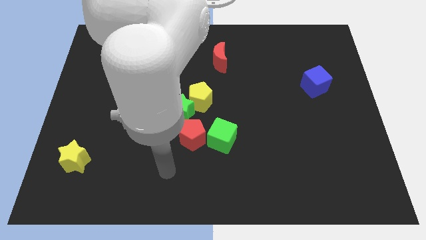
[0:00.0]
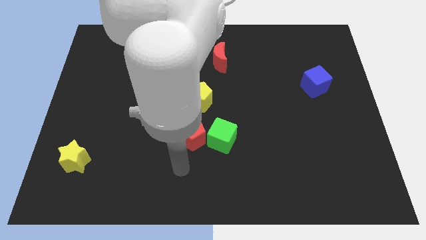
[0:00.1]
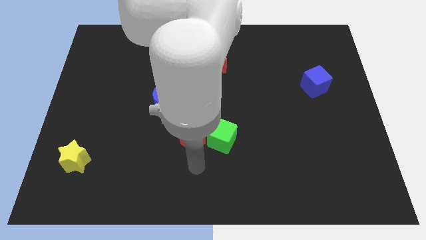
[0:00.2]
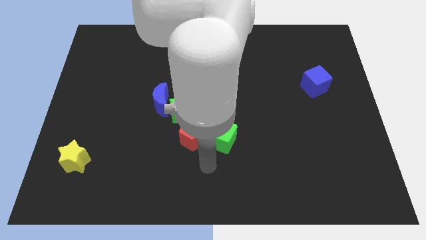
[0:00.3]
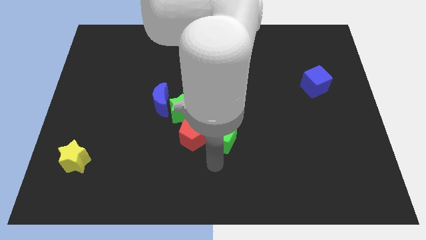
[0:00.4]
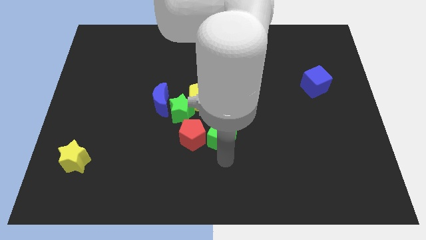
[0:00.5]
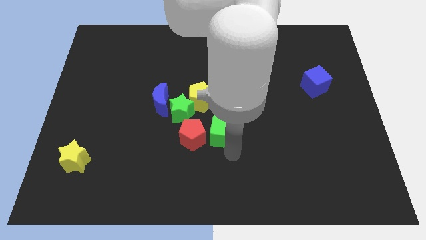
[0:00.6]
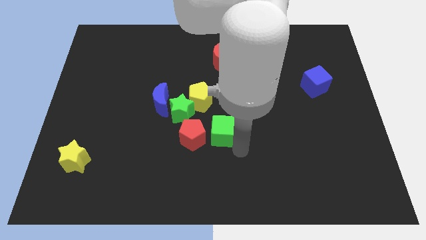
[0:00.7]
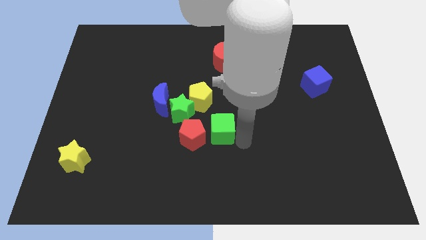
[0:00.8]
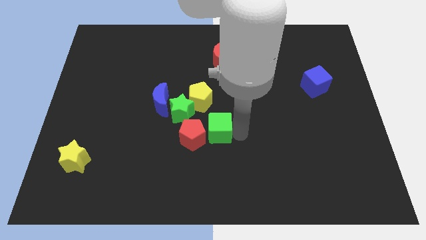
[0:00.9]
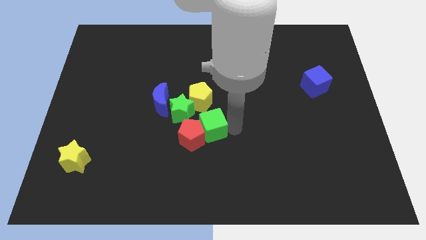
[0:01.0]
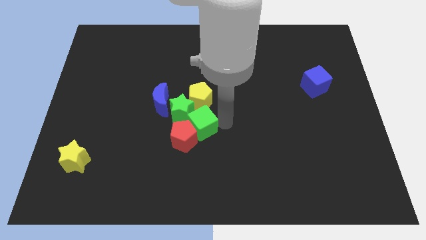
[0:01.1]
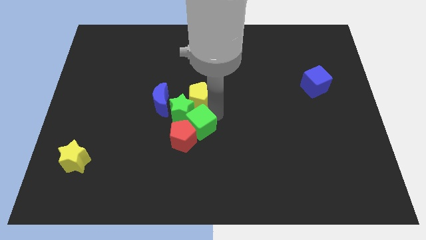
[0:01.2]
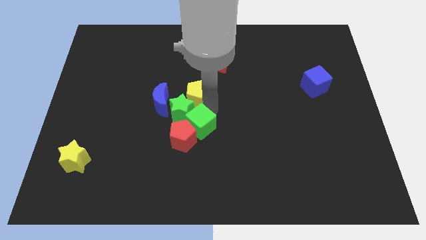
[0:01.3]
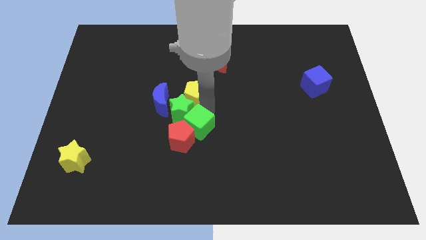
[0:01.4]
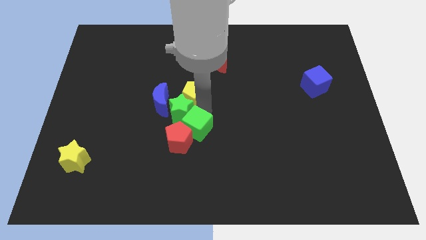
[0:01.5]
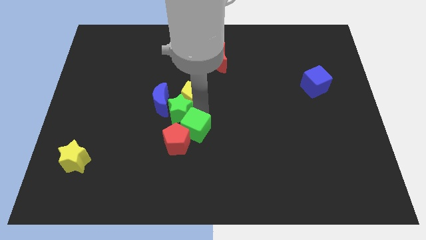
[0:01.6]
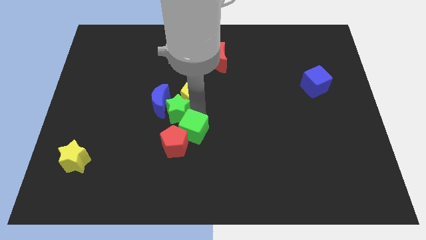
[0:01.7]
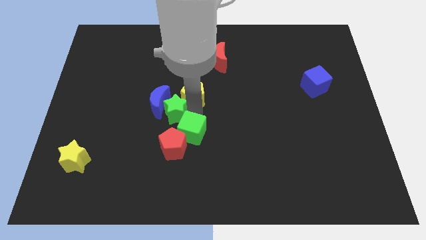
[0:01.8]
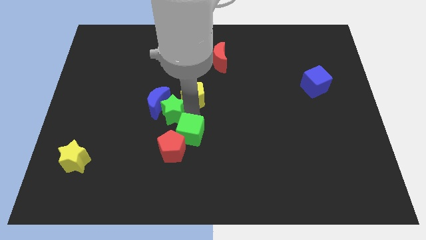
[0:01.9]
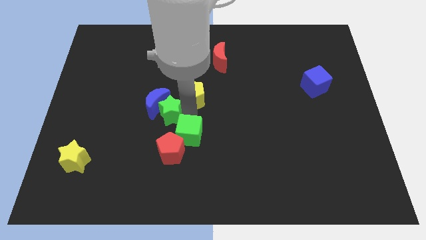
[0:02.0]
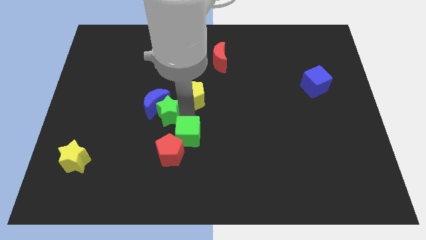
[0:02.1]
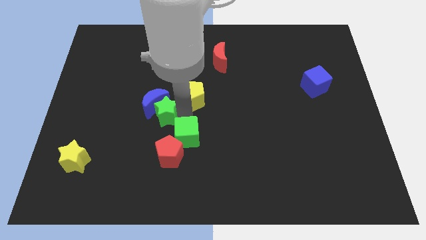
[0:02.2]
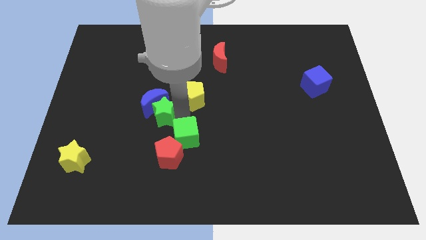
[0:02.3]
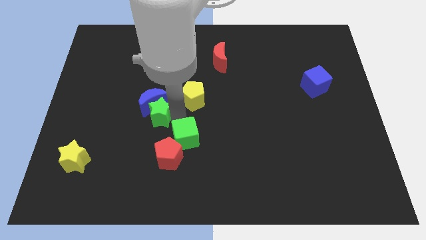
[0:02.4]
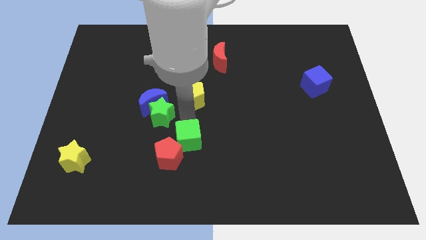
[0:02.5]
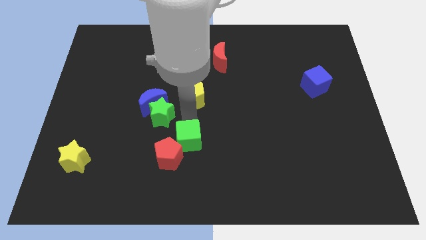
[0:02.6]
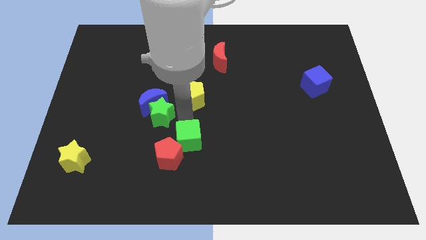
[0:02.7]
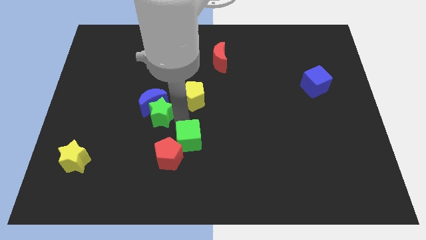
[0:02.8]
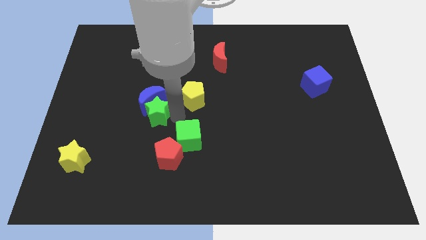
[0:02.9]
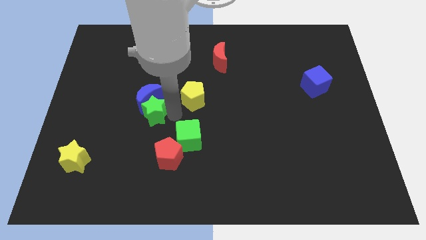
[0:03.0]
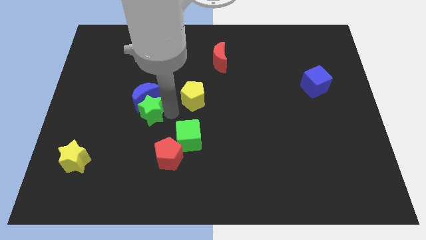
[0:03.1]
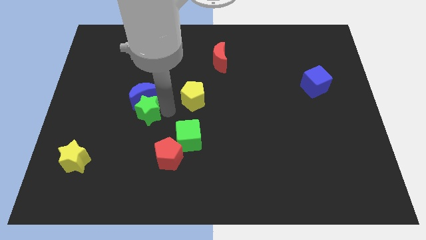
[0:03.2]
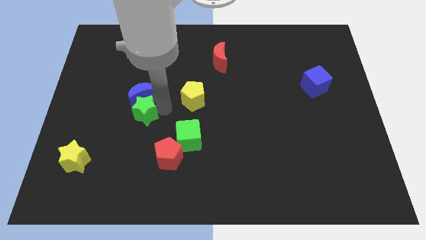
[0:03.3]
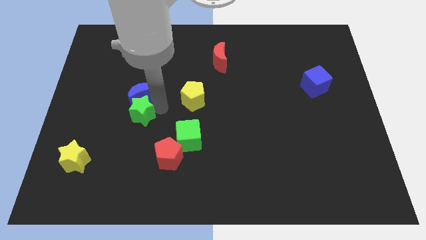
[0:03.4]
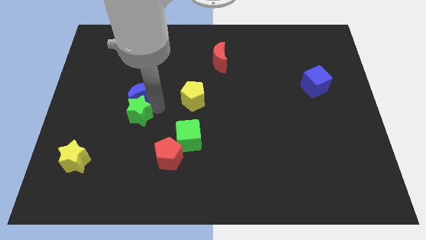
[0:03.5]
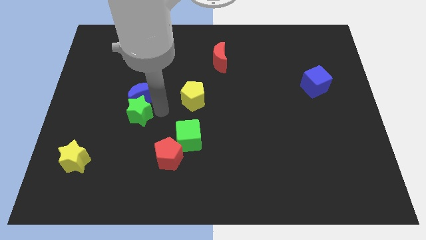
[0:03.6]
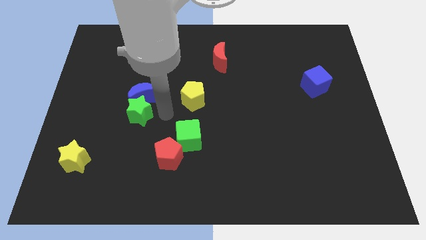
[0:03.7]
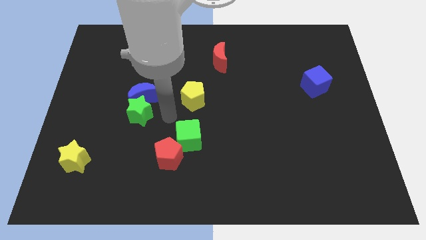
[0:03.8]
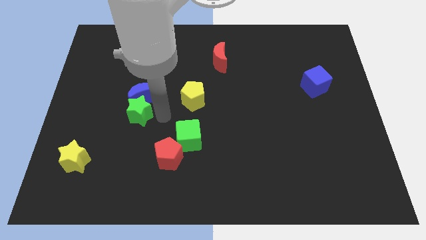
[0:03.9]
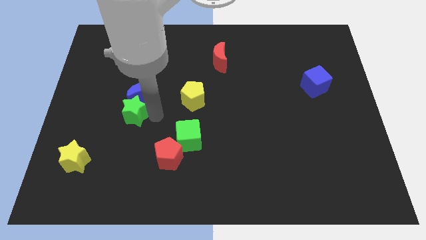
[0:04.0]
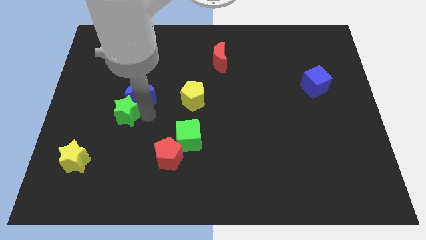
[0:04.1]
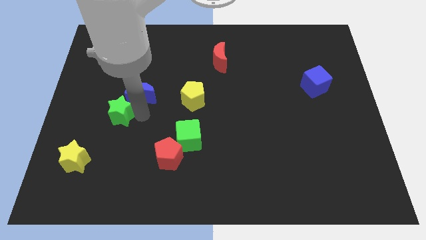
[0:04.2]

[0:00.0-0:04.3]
move the green star away from the yellow pentagon, blue moon, and red pentagon

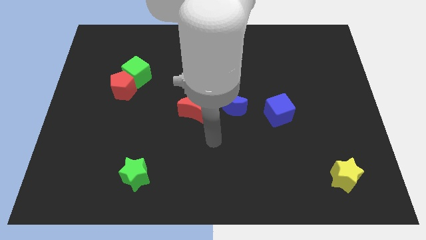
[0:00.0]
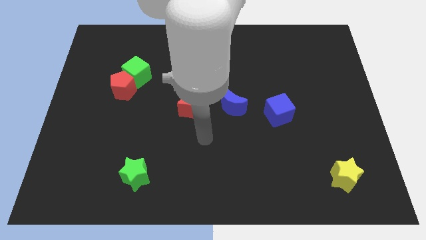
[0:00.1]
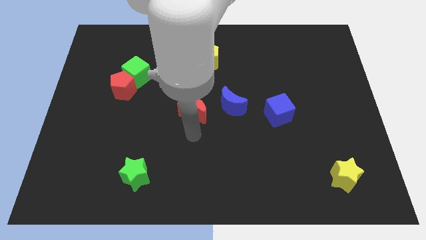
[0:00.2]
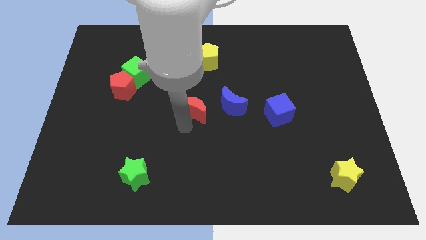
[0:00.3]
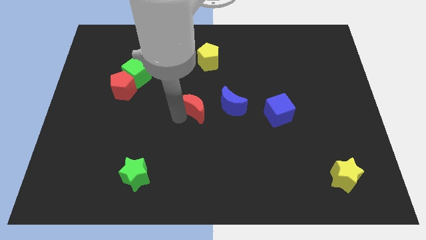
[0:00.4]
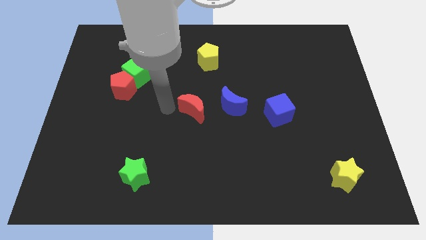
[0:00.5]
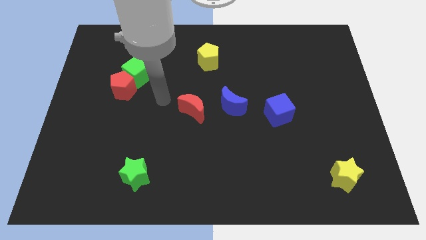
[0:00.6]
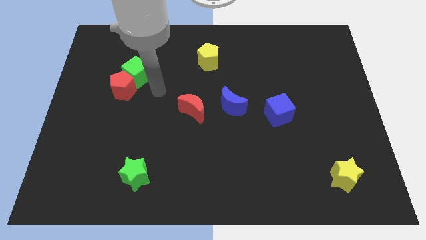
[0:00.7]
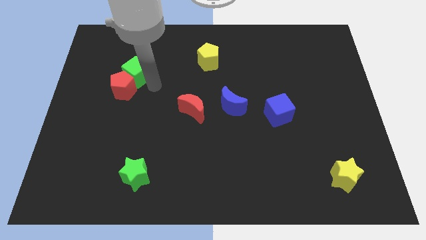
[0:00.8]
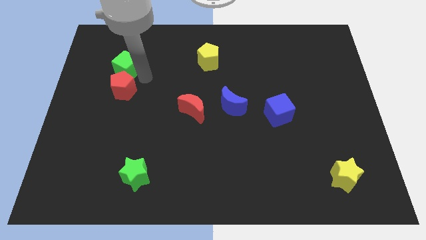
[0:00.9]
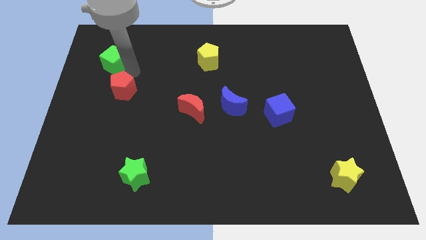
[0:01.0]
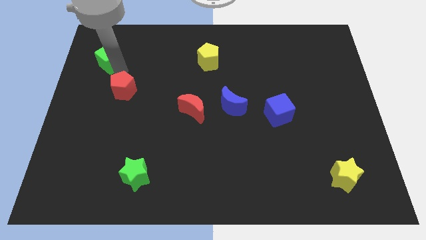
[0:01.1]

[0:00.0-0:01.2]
move the red pentagon away from the green cube

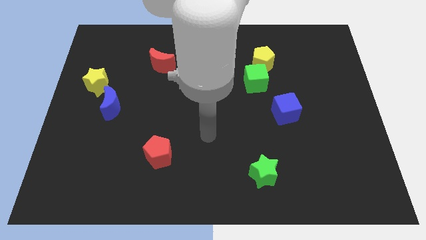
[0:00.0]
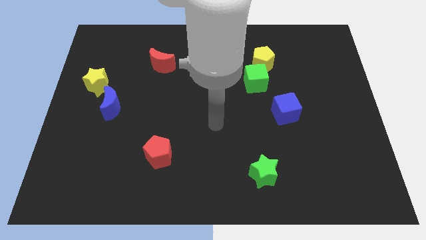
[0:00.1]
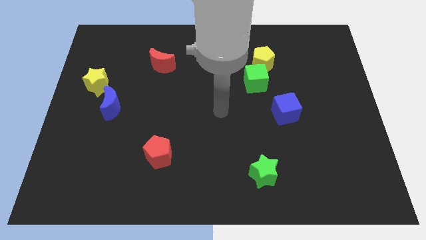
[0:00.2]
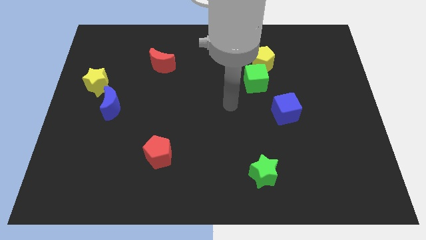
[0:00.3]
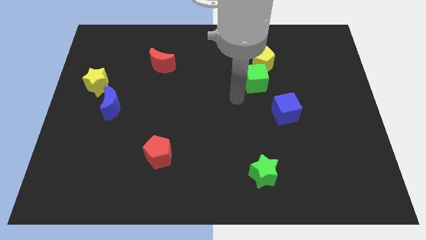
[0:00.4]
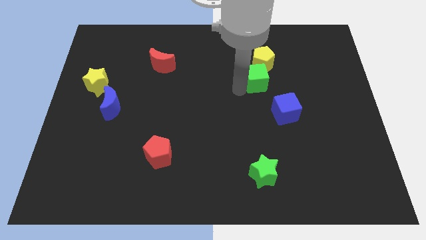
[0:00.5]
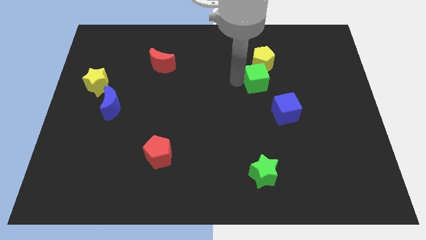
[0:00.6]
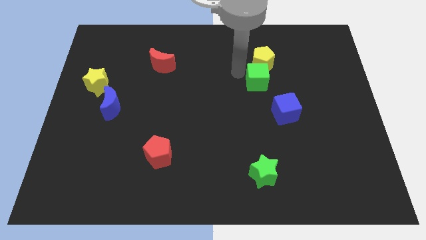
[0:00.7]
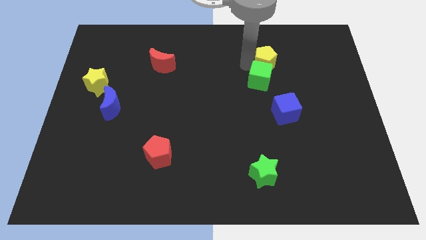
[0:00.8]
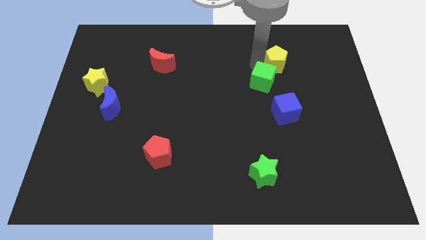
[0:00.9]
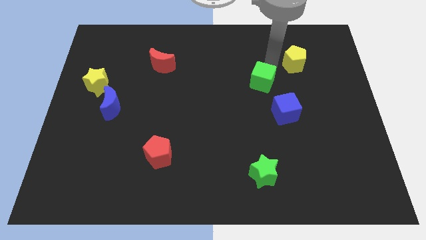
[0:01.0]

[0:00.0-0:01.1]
separate the green cube from the yellow pentagon

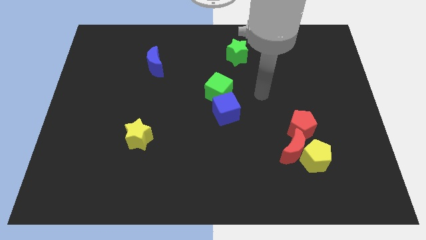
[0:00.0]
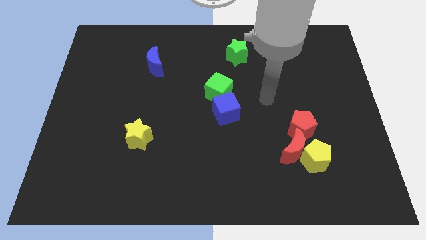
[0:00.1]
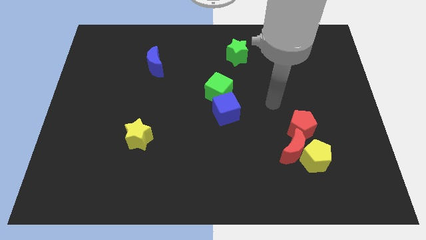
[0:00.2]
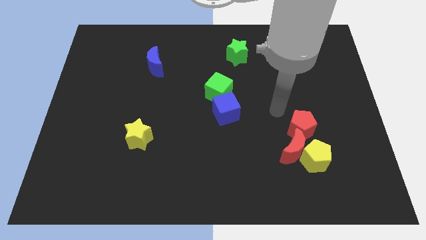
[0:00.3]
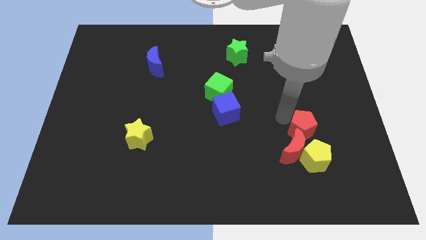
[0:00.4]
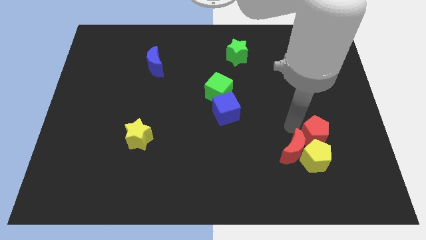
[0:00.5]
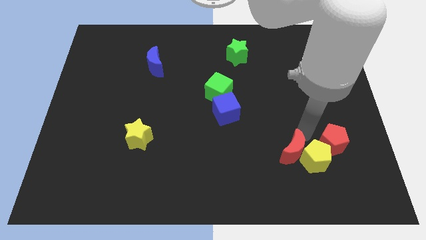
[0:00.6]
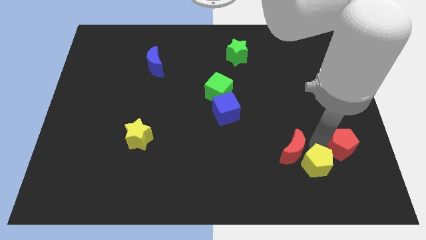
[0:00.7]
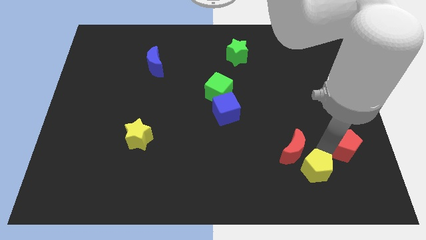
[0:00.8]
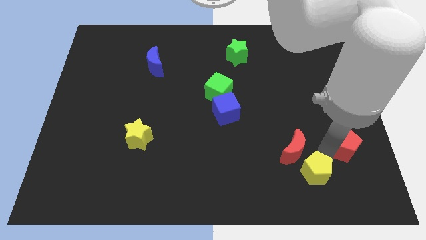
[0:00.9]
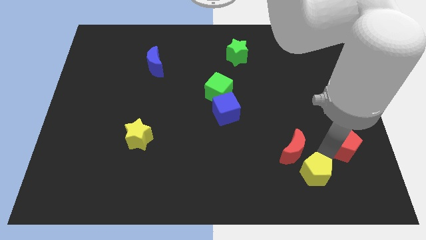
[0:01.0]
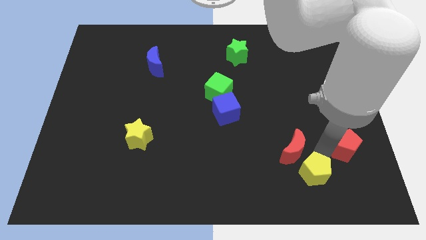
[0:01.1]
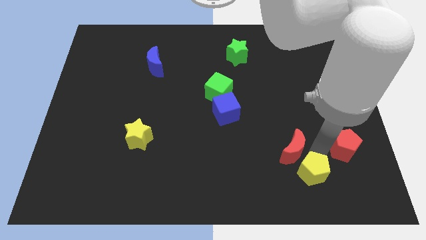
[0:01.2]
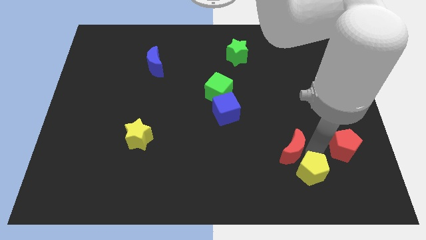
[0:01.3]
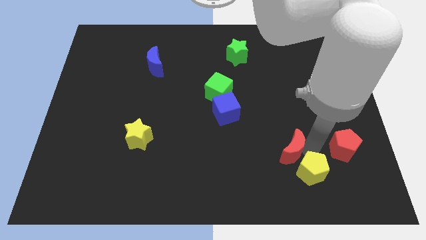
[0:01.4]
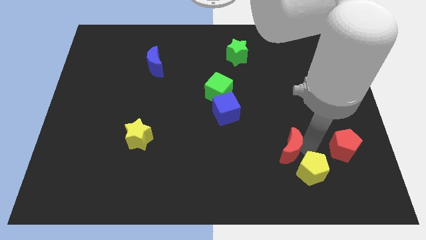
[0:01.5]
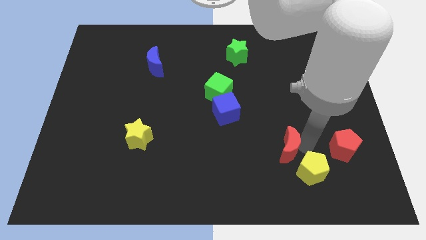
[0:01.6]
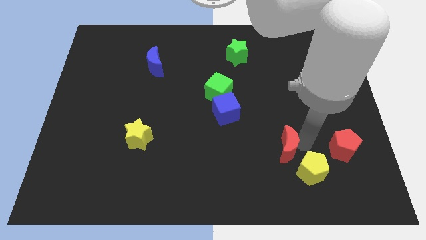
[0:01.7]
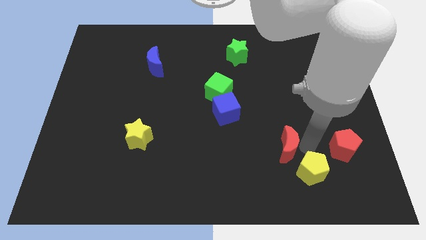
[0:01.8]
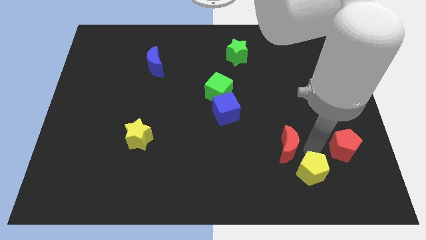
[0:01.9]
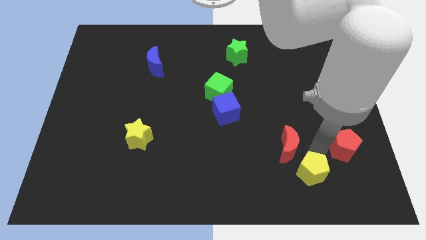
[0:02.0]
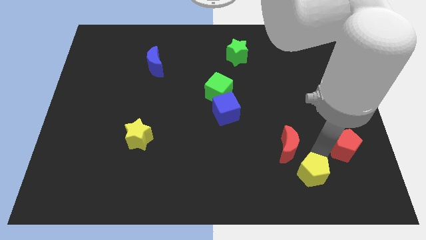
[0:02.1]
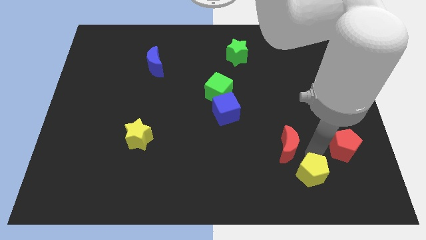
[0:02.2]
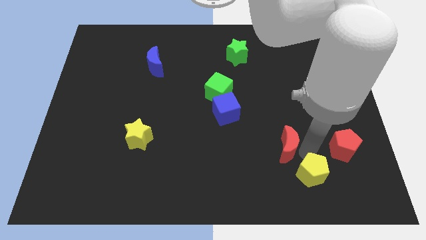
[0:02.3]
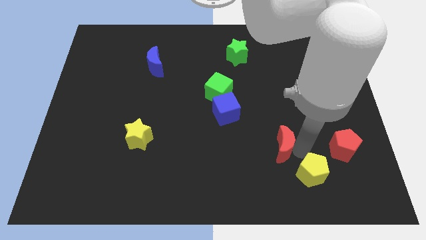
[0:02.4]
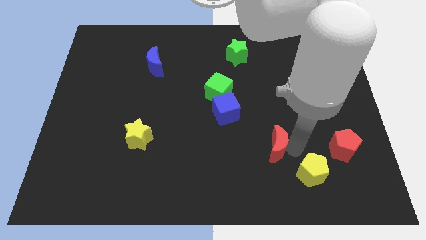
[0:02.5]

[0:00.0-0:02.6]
move the red moon away from the yellow pentagon and red pentagon

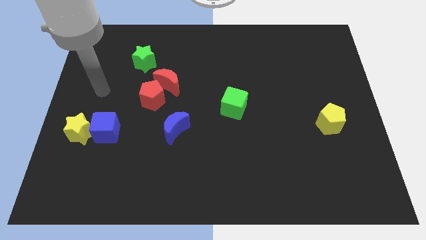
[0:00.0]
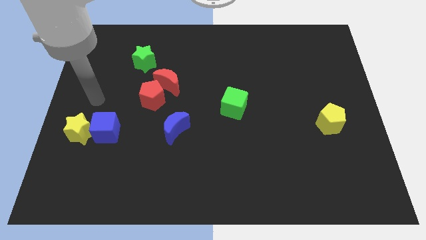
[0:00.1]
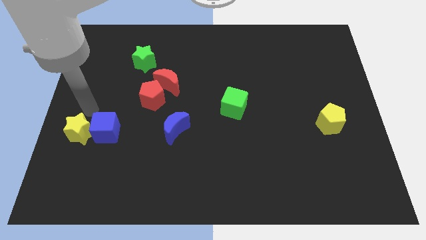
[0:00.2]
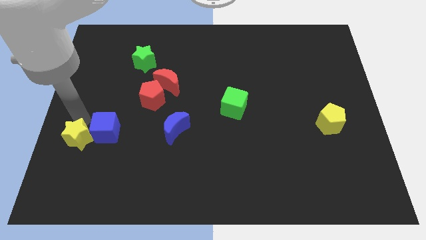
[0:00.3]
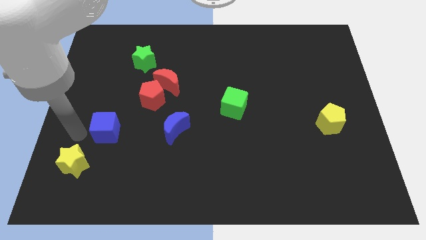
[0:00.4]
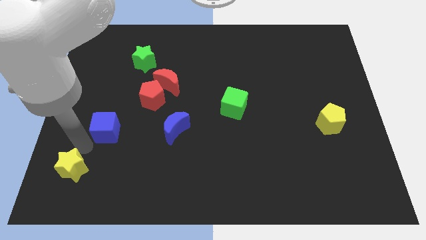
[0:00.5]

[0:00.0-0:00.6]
move the blue cube away from the yellow star
